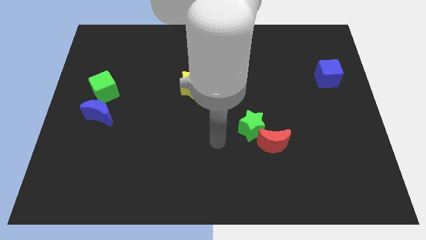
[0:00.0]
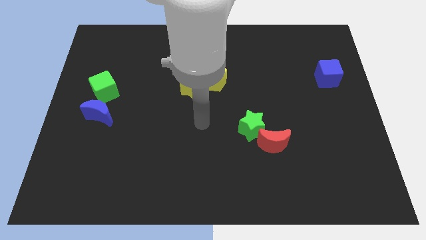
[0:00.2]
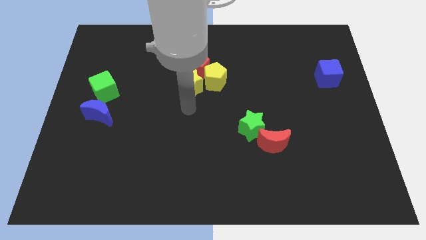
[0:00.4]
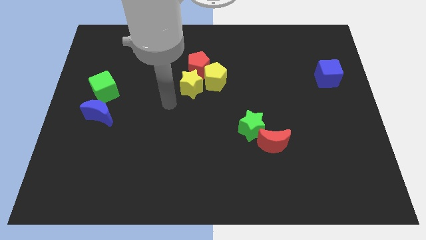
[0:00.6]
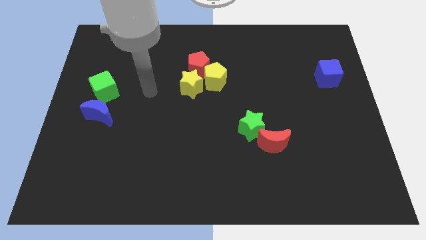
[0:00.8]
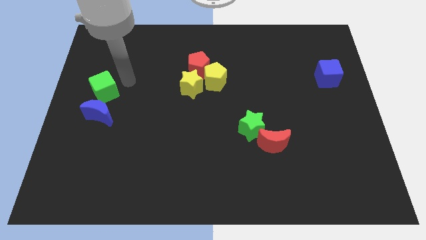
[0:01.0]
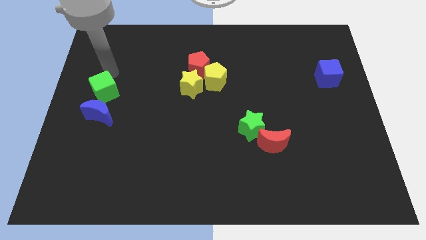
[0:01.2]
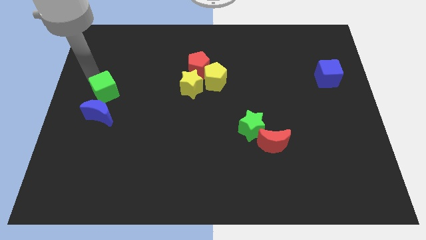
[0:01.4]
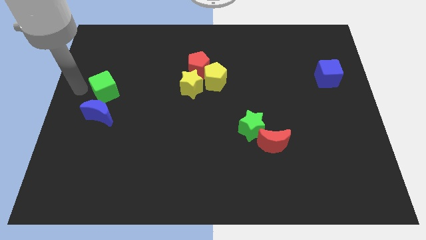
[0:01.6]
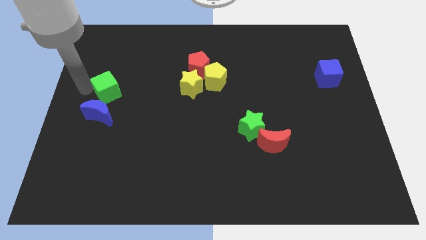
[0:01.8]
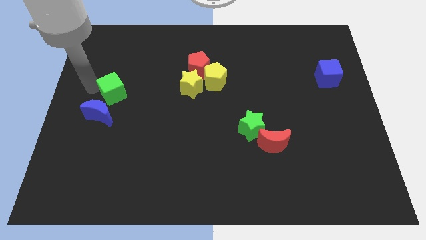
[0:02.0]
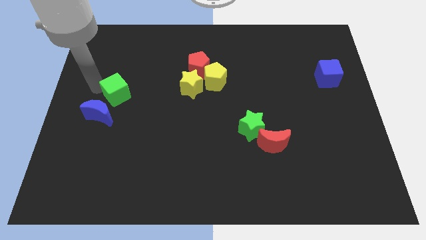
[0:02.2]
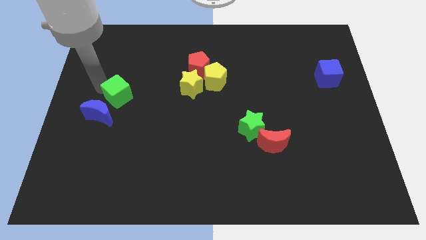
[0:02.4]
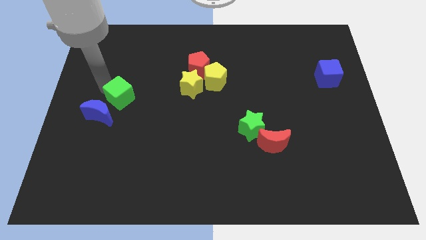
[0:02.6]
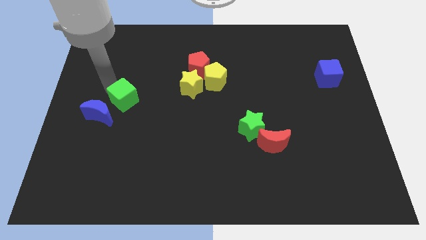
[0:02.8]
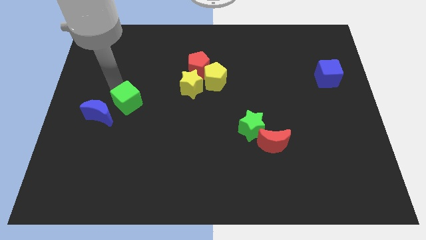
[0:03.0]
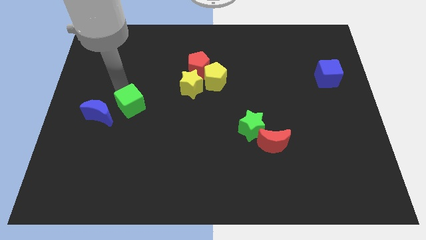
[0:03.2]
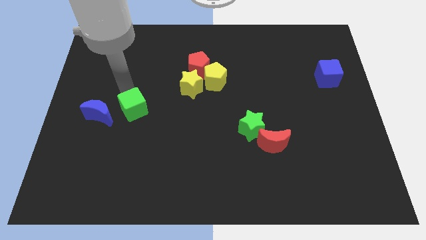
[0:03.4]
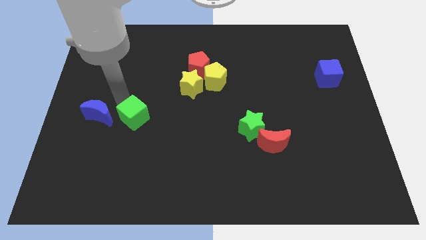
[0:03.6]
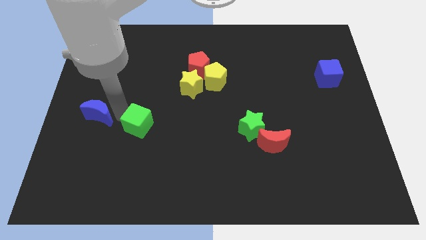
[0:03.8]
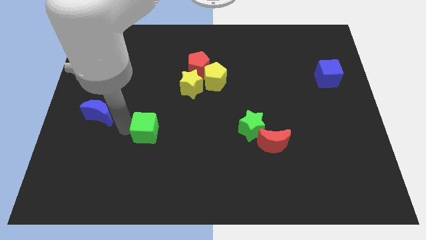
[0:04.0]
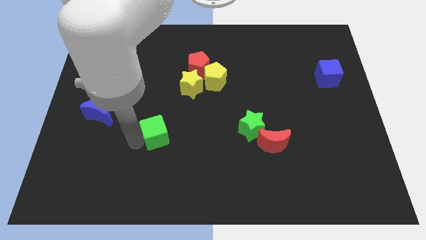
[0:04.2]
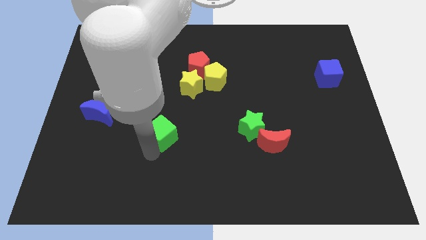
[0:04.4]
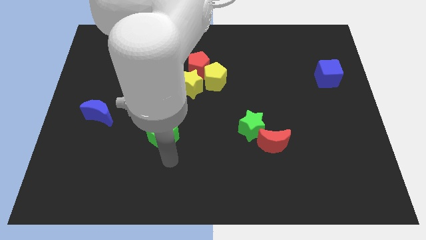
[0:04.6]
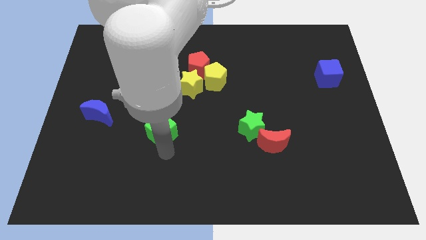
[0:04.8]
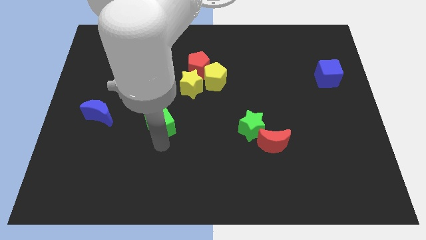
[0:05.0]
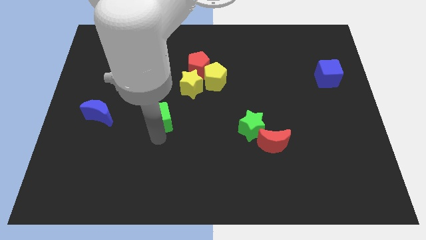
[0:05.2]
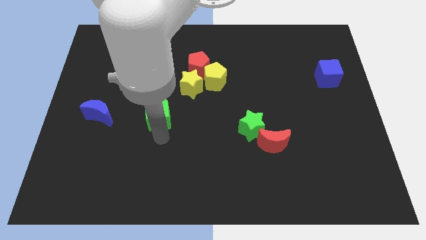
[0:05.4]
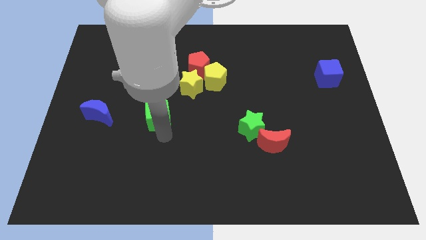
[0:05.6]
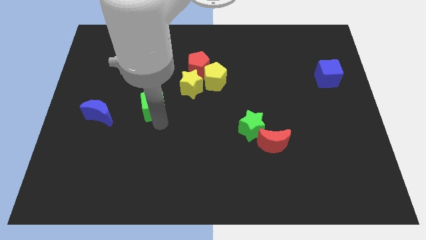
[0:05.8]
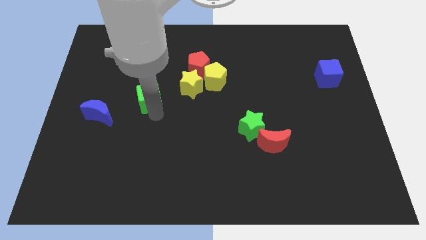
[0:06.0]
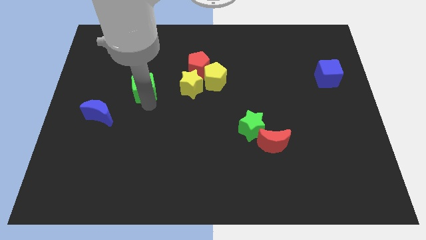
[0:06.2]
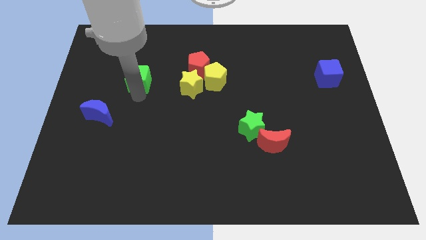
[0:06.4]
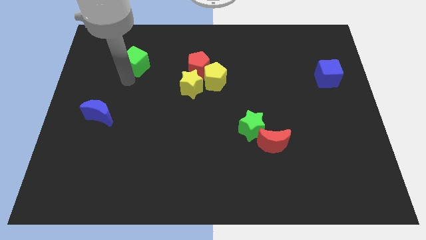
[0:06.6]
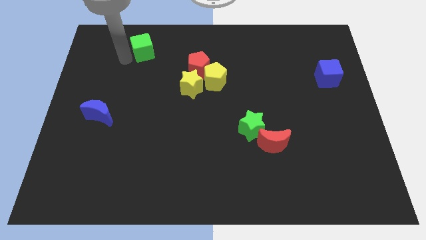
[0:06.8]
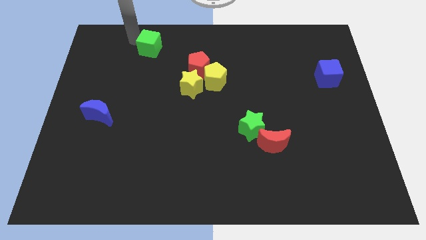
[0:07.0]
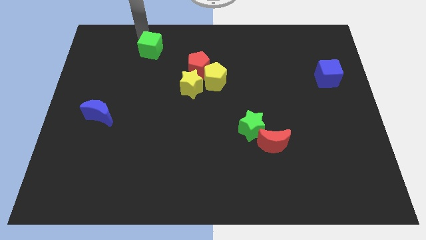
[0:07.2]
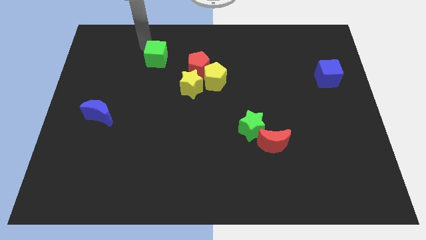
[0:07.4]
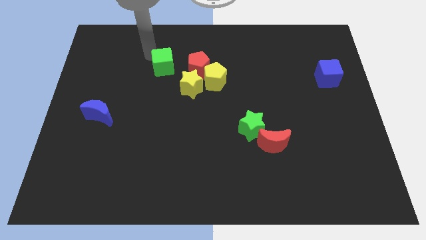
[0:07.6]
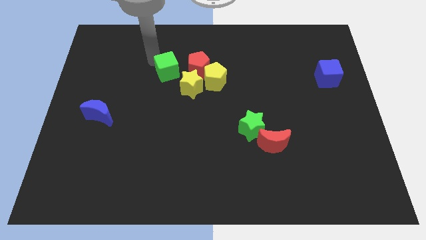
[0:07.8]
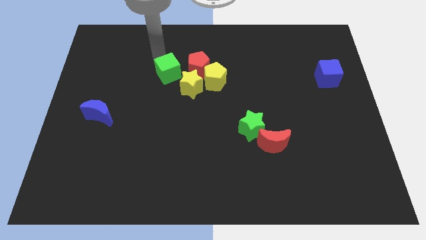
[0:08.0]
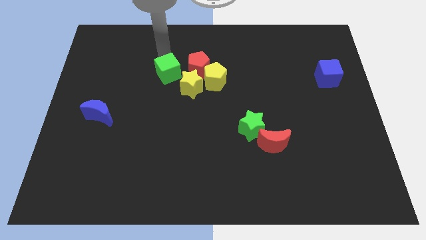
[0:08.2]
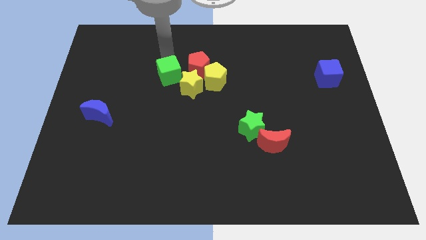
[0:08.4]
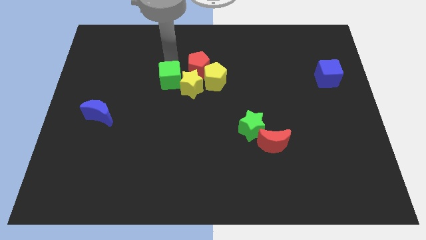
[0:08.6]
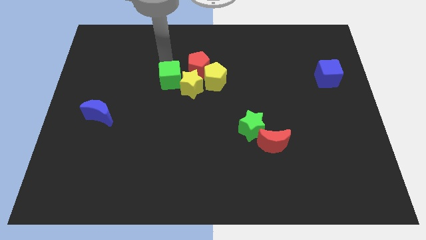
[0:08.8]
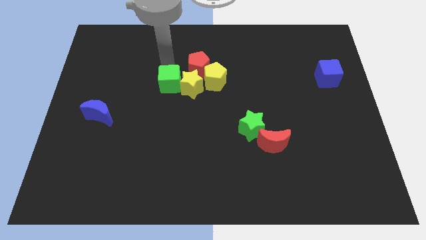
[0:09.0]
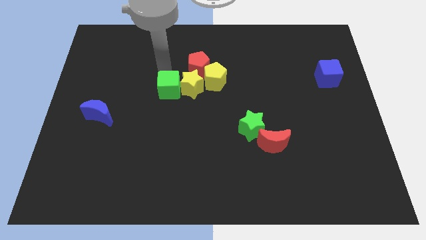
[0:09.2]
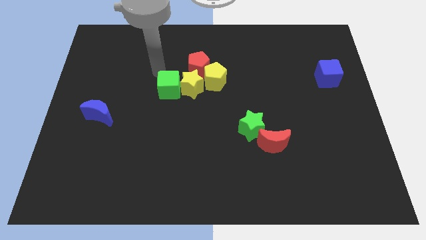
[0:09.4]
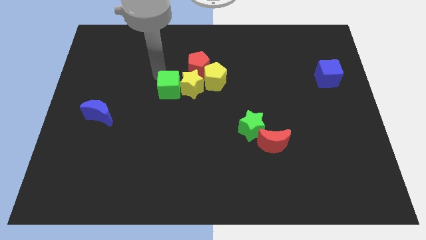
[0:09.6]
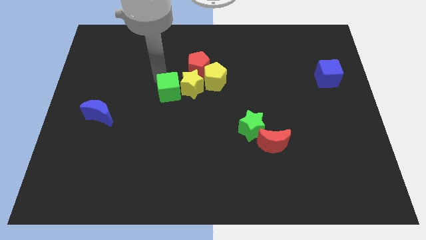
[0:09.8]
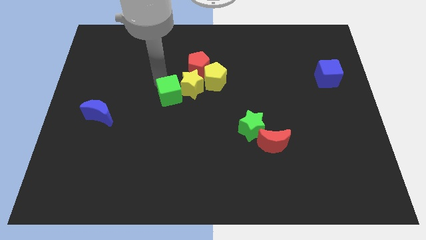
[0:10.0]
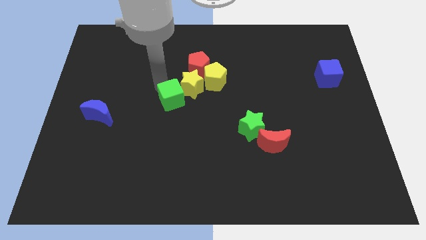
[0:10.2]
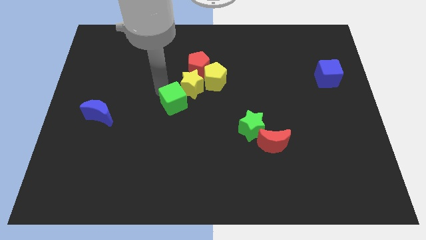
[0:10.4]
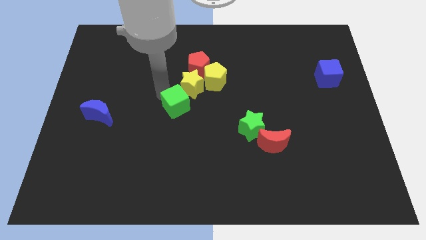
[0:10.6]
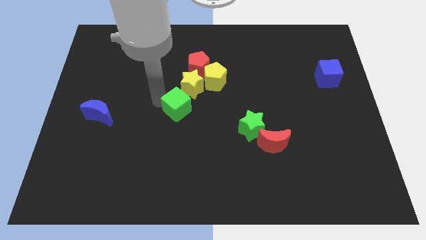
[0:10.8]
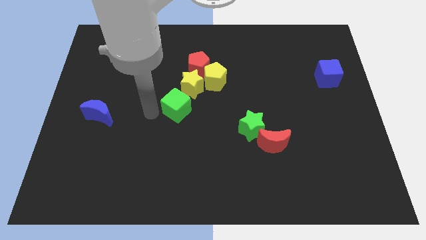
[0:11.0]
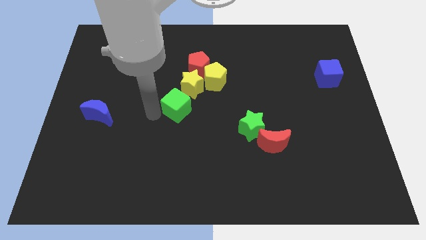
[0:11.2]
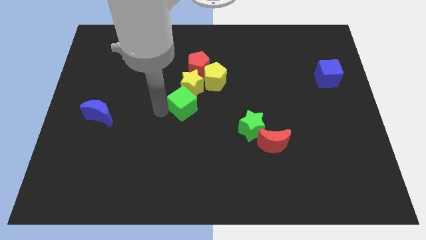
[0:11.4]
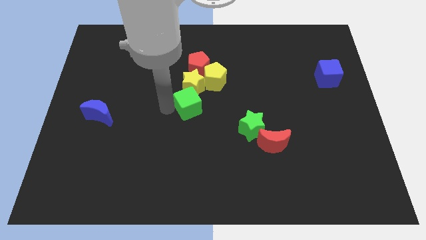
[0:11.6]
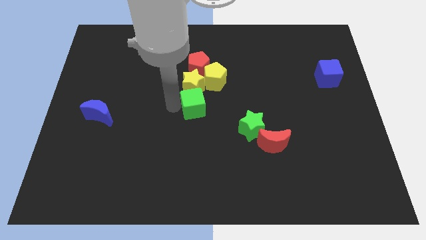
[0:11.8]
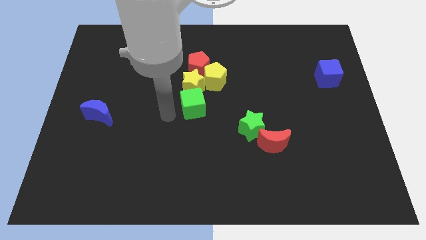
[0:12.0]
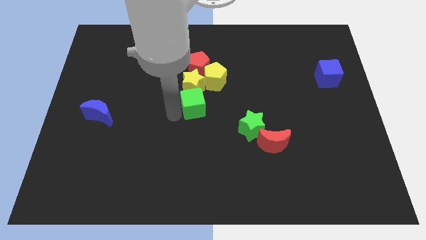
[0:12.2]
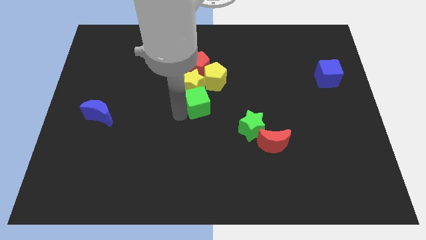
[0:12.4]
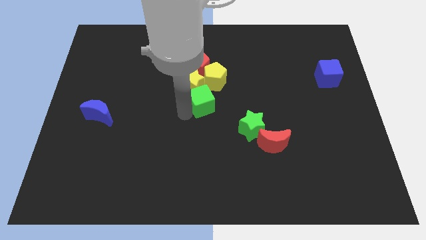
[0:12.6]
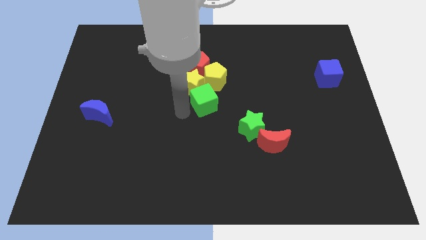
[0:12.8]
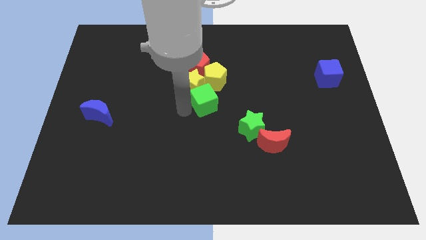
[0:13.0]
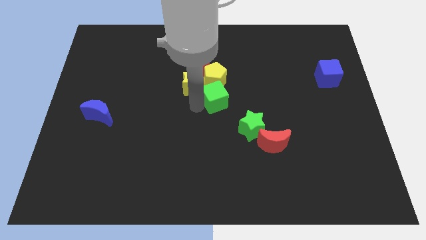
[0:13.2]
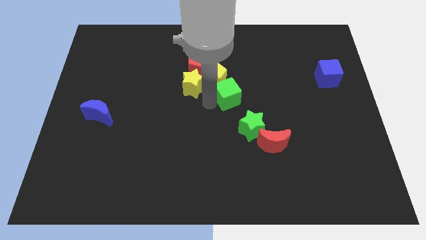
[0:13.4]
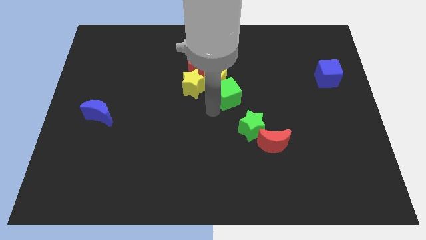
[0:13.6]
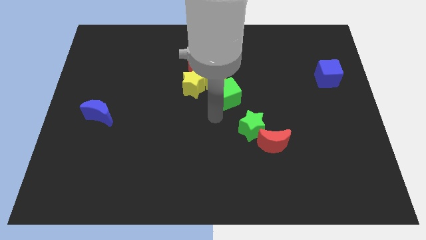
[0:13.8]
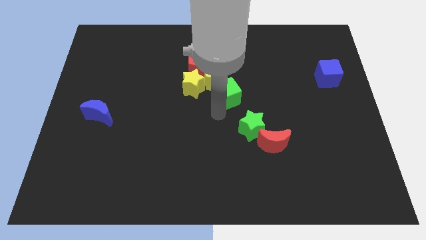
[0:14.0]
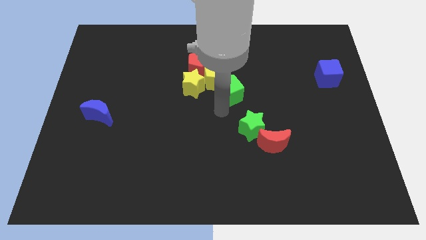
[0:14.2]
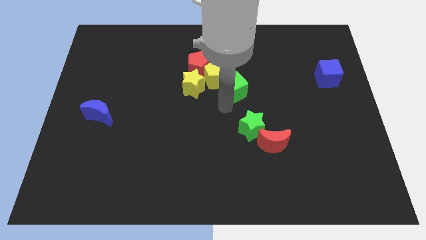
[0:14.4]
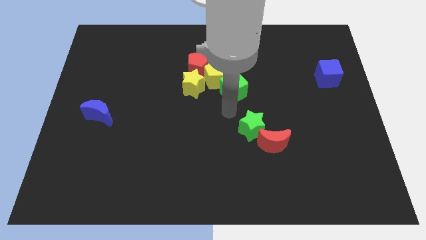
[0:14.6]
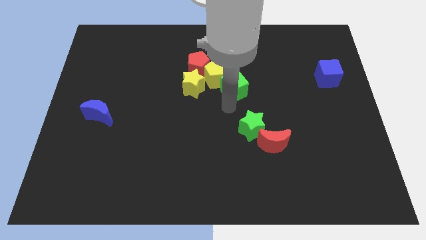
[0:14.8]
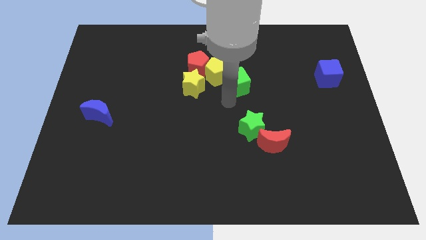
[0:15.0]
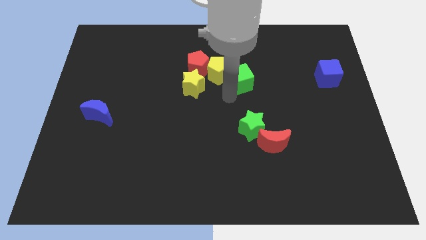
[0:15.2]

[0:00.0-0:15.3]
push the green cube just right of the red pentagon
